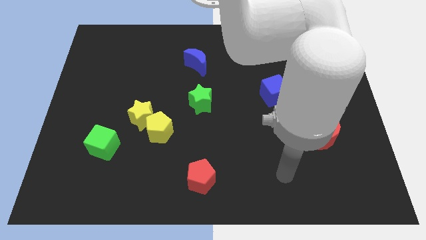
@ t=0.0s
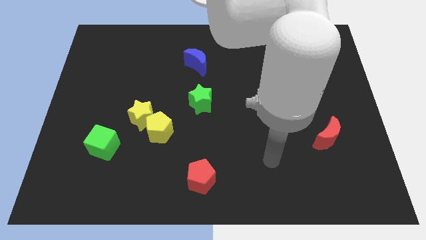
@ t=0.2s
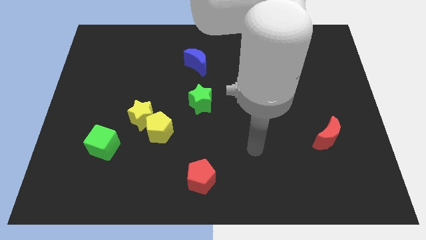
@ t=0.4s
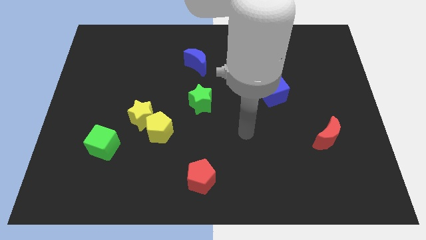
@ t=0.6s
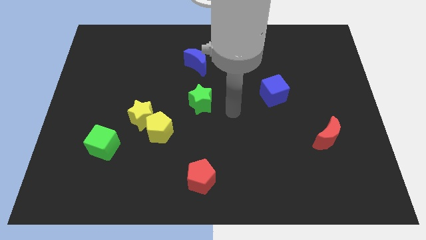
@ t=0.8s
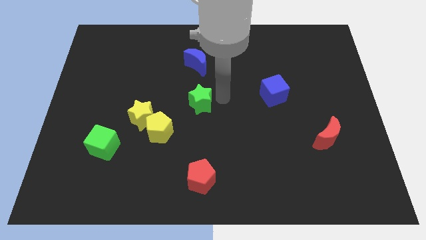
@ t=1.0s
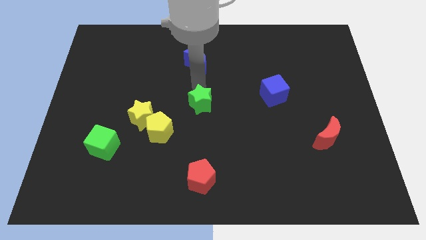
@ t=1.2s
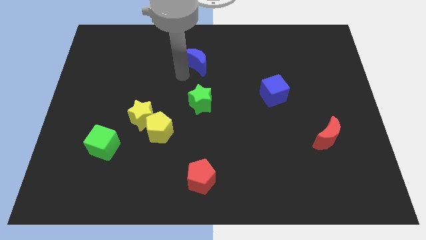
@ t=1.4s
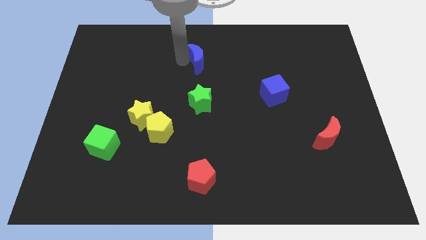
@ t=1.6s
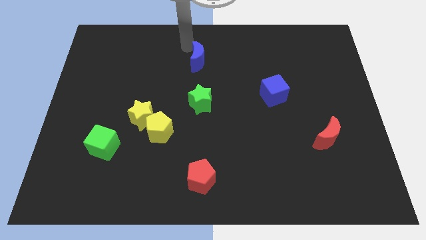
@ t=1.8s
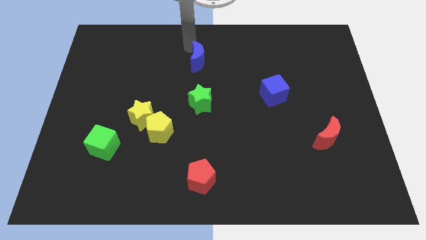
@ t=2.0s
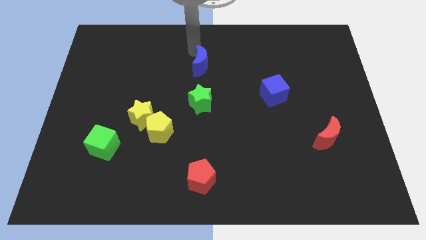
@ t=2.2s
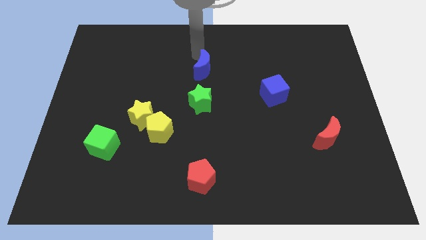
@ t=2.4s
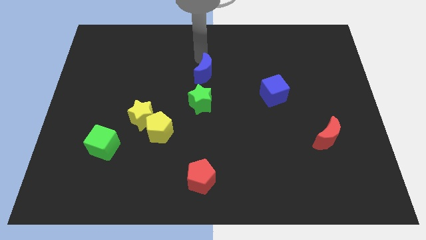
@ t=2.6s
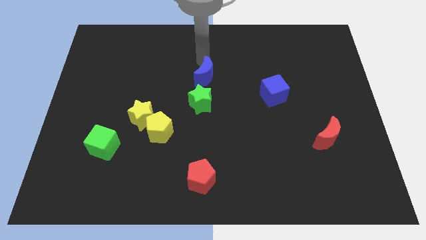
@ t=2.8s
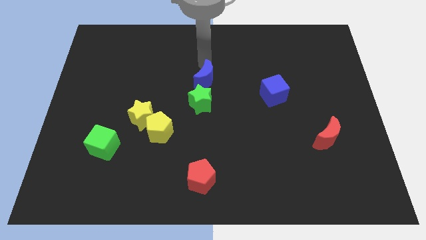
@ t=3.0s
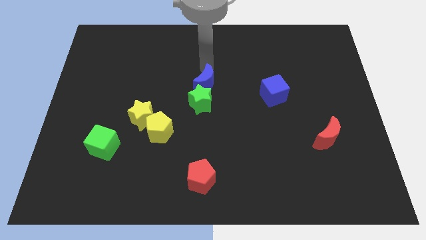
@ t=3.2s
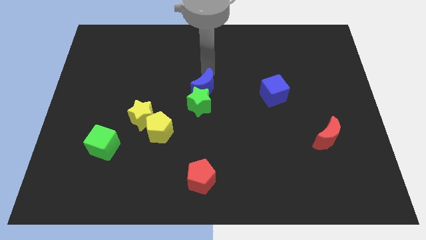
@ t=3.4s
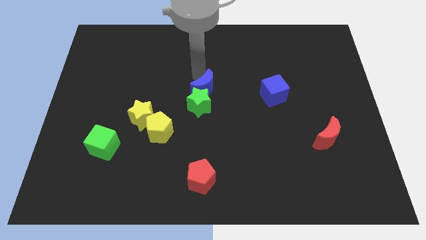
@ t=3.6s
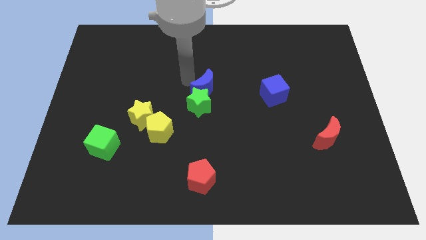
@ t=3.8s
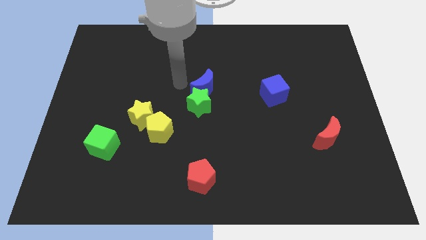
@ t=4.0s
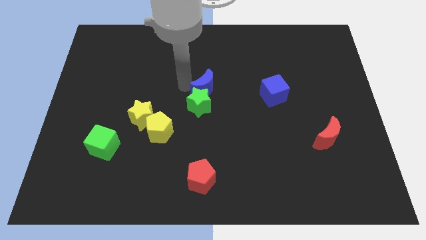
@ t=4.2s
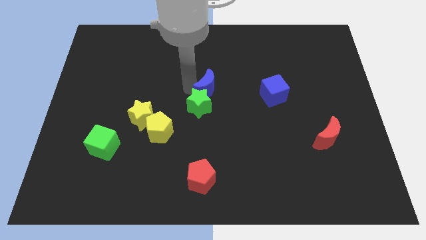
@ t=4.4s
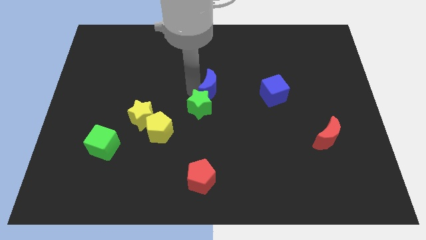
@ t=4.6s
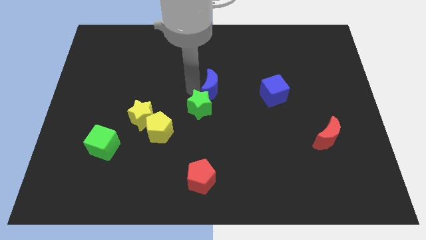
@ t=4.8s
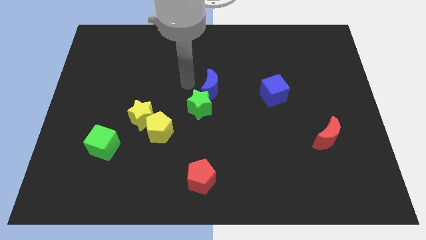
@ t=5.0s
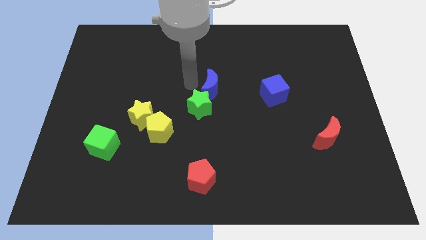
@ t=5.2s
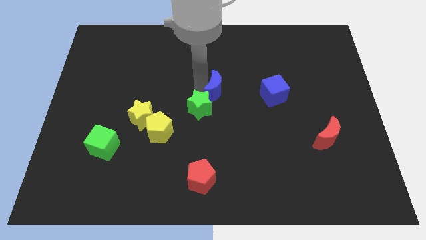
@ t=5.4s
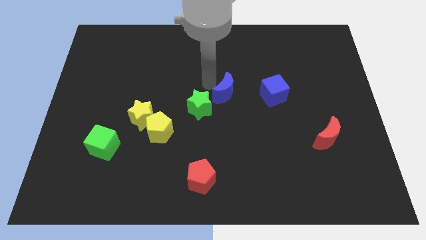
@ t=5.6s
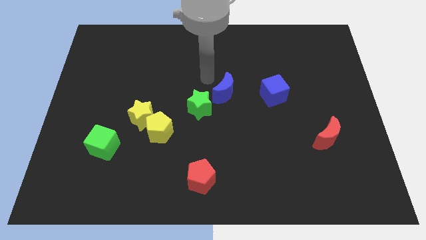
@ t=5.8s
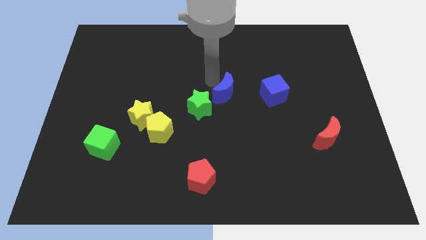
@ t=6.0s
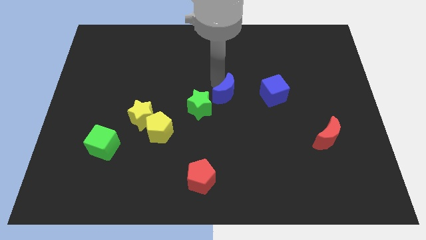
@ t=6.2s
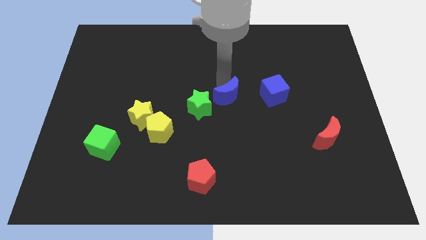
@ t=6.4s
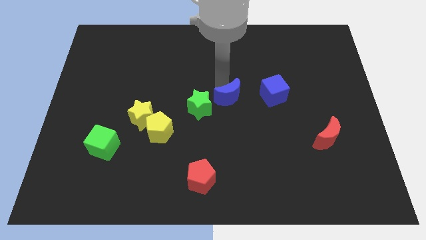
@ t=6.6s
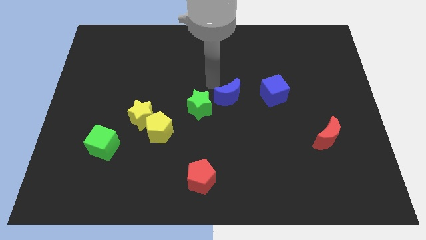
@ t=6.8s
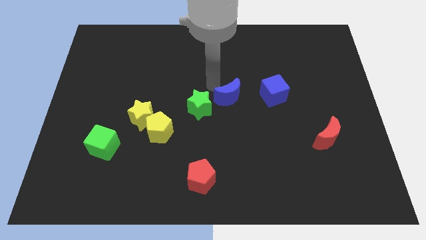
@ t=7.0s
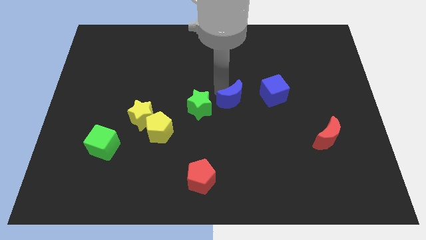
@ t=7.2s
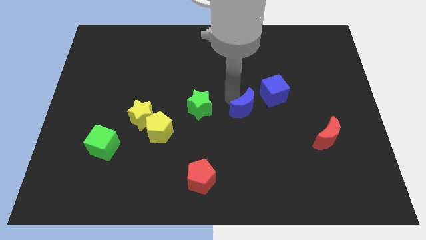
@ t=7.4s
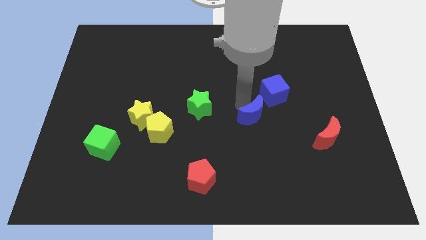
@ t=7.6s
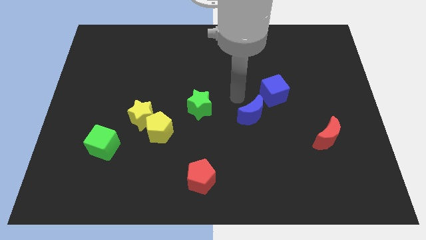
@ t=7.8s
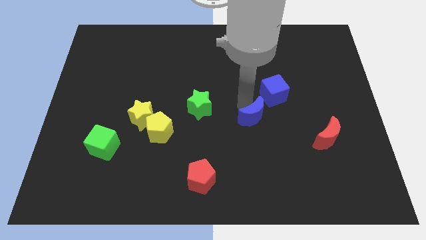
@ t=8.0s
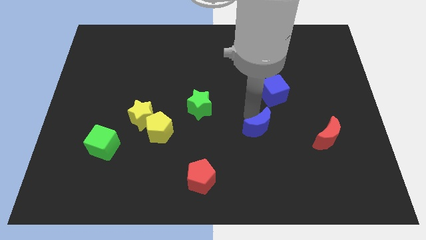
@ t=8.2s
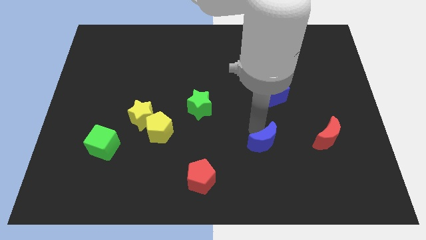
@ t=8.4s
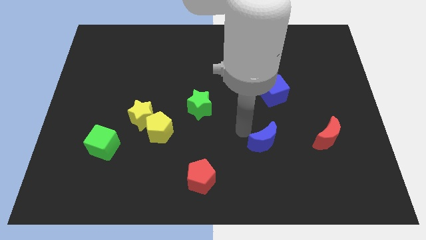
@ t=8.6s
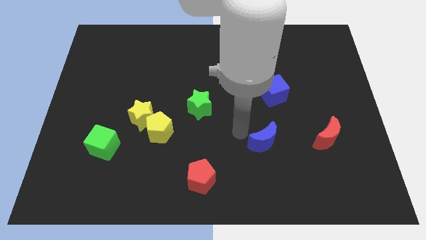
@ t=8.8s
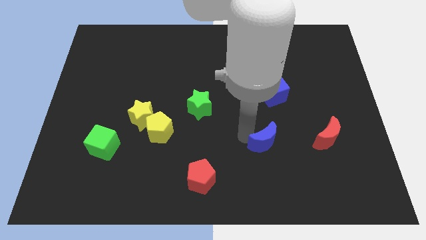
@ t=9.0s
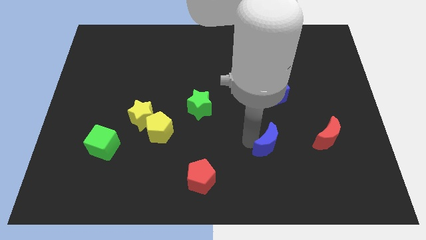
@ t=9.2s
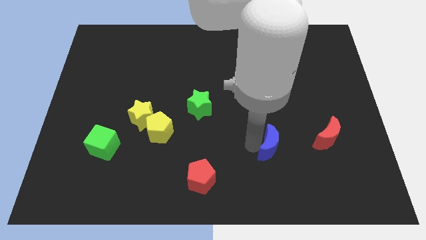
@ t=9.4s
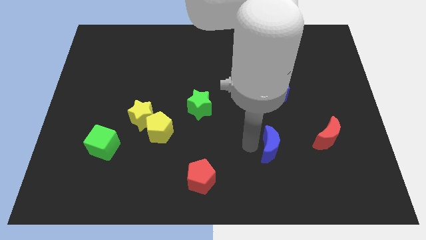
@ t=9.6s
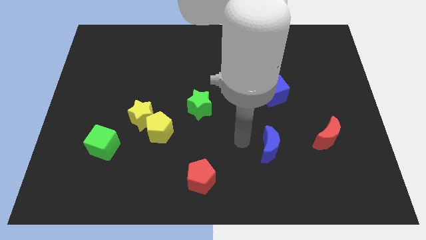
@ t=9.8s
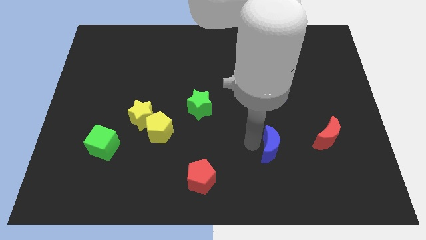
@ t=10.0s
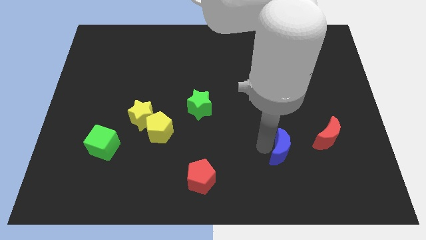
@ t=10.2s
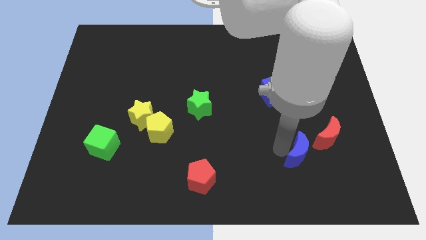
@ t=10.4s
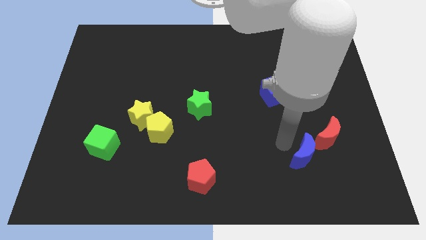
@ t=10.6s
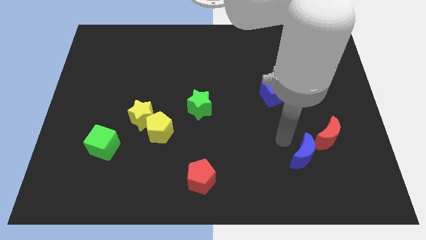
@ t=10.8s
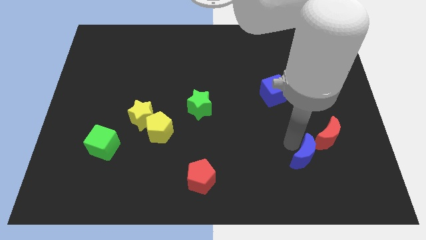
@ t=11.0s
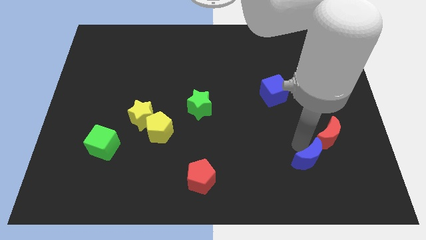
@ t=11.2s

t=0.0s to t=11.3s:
put the blue moon below the red moon

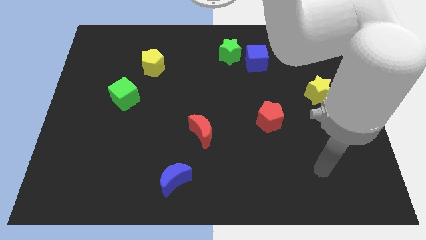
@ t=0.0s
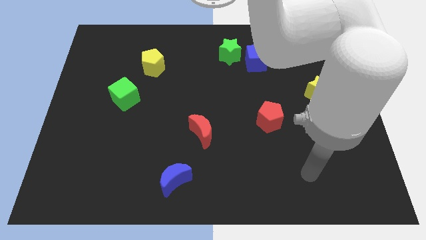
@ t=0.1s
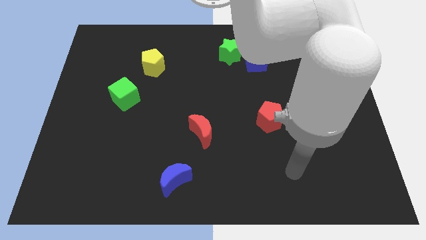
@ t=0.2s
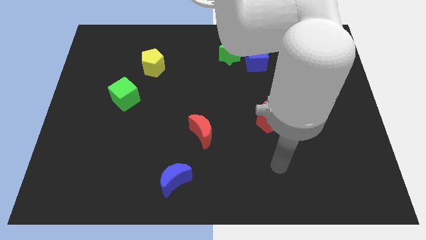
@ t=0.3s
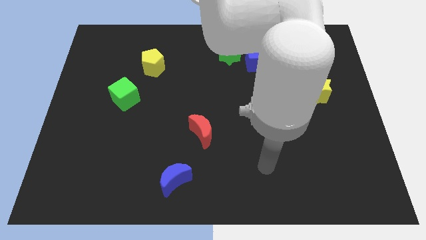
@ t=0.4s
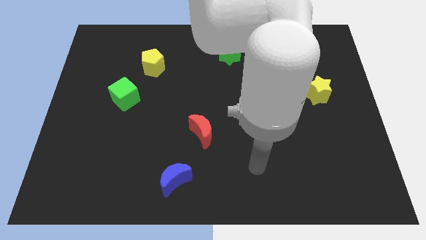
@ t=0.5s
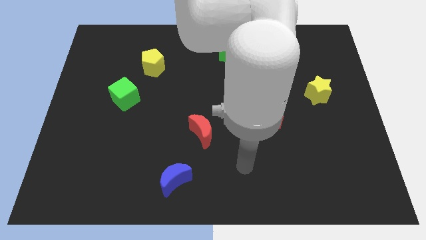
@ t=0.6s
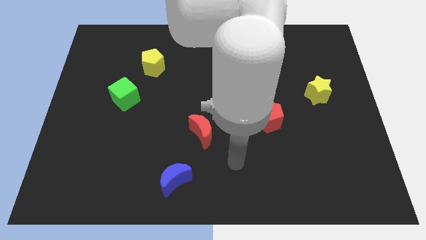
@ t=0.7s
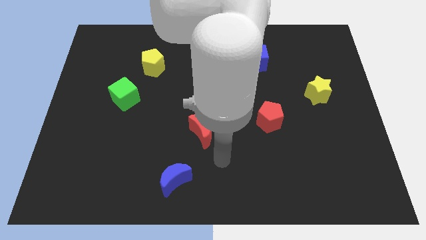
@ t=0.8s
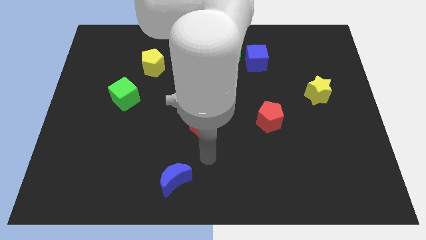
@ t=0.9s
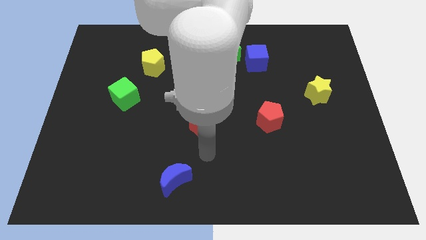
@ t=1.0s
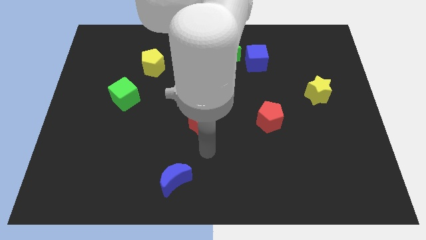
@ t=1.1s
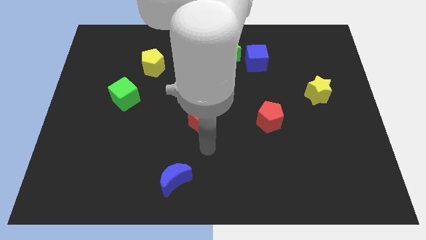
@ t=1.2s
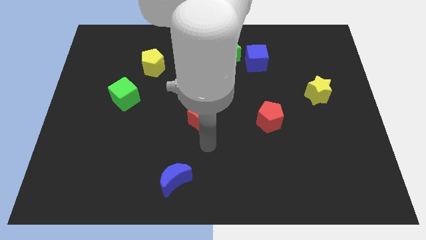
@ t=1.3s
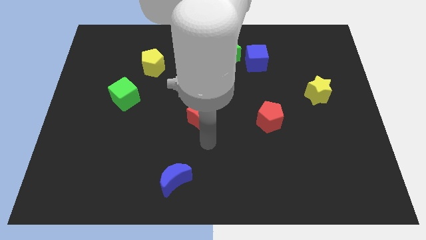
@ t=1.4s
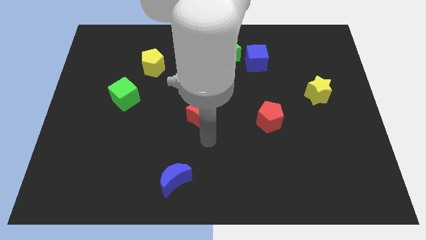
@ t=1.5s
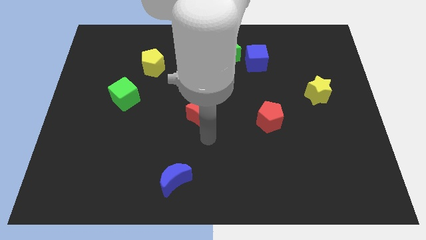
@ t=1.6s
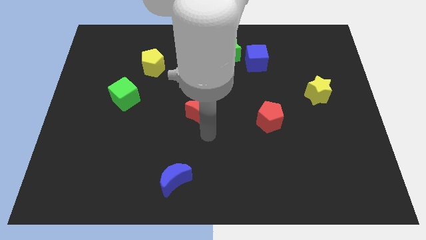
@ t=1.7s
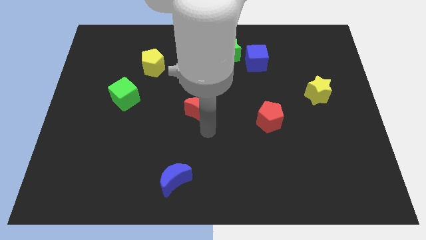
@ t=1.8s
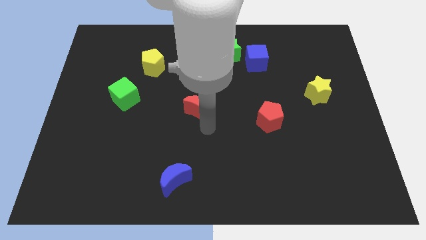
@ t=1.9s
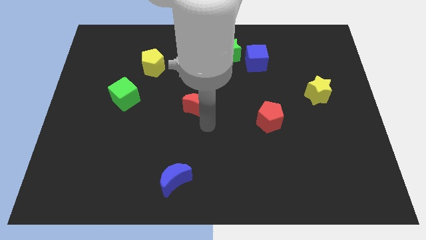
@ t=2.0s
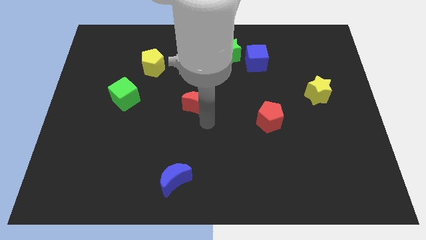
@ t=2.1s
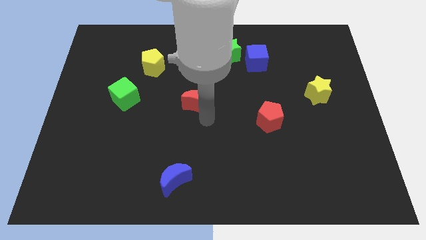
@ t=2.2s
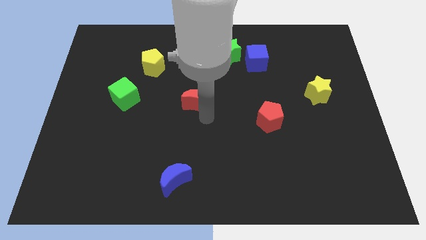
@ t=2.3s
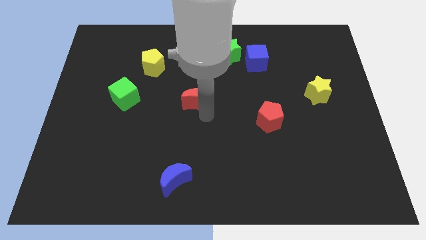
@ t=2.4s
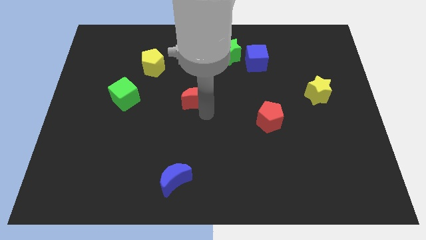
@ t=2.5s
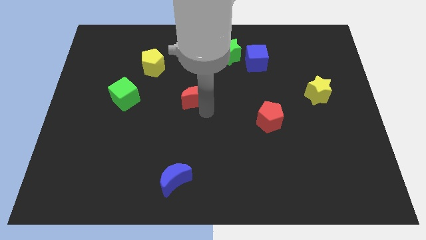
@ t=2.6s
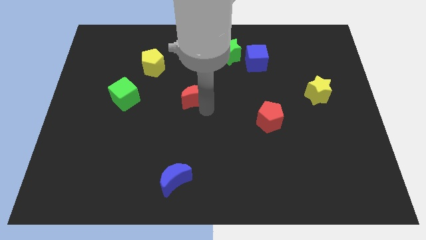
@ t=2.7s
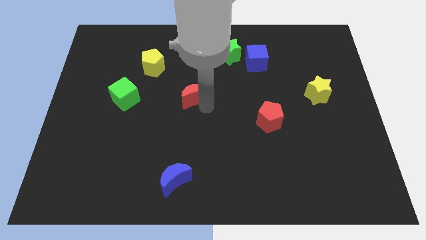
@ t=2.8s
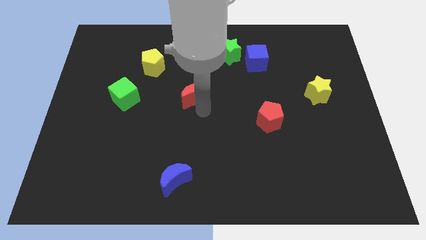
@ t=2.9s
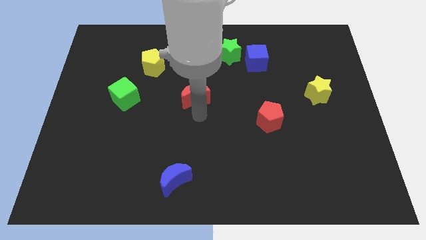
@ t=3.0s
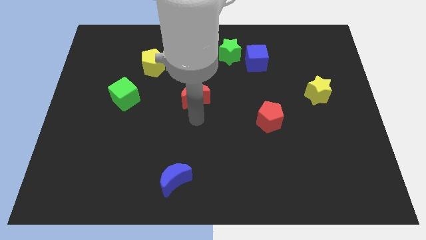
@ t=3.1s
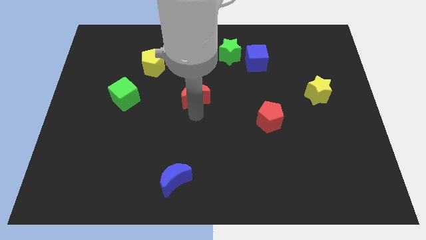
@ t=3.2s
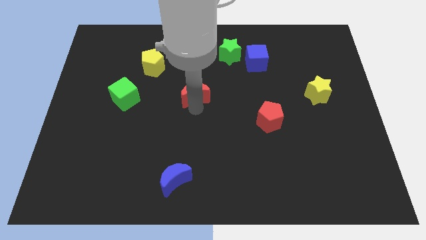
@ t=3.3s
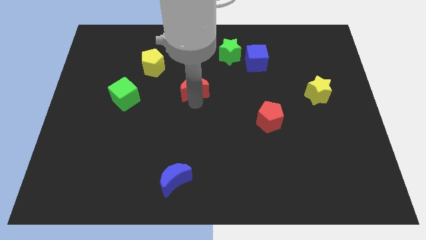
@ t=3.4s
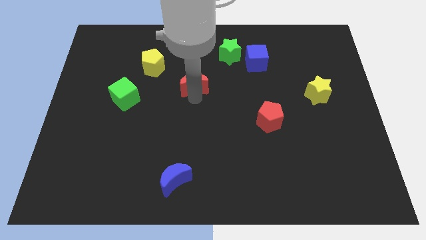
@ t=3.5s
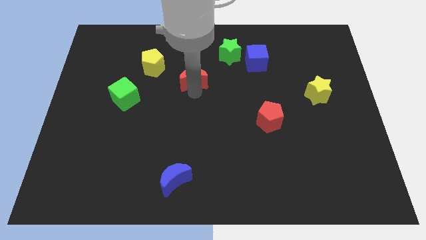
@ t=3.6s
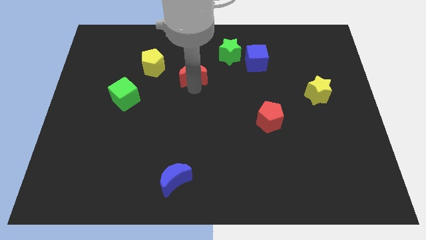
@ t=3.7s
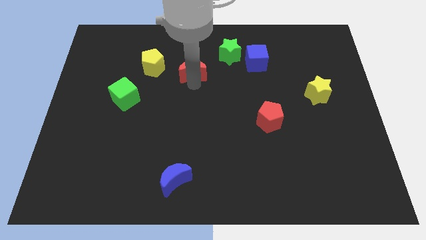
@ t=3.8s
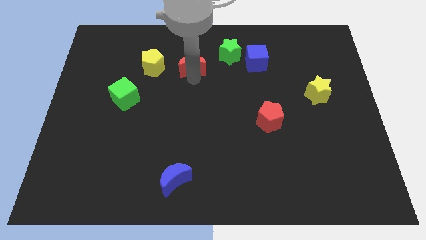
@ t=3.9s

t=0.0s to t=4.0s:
slide the red moon just left of the green star
